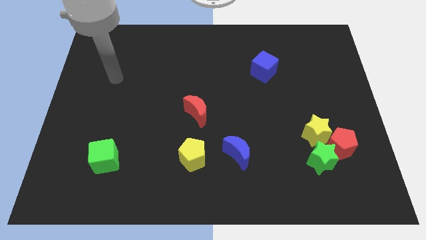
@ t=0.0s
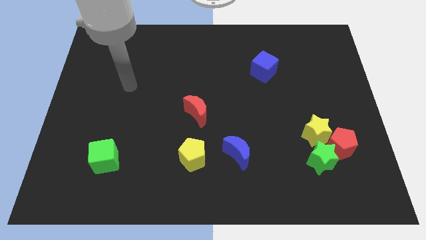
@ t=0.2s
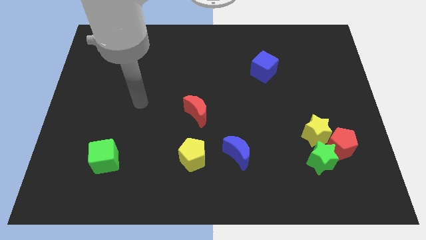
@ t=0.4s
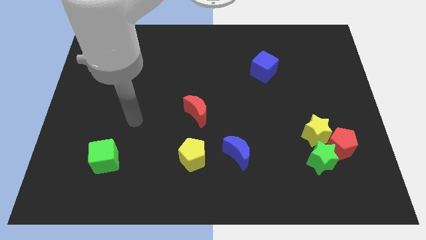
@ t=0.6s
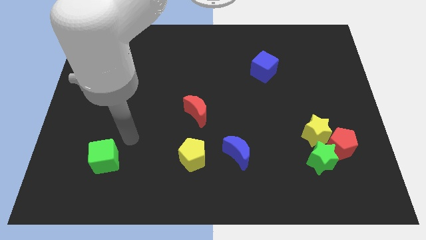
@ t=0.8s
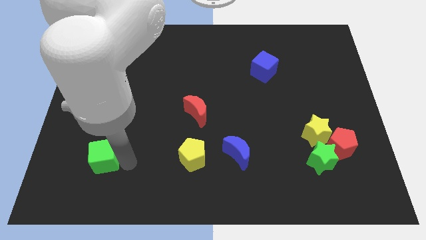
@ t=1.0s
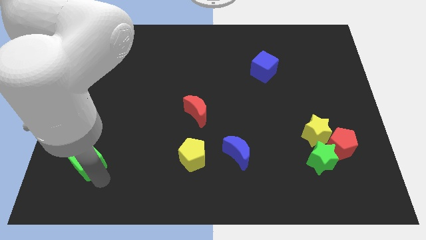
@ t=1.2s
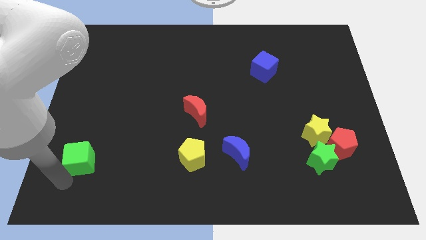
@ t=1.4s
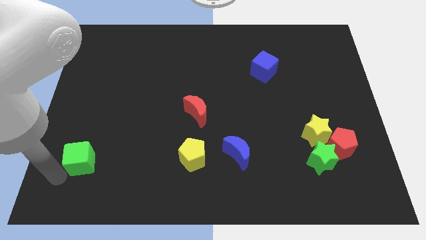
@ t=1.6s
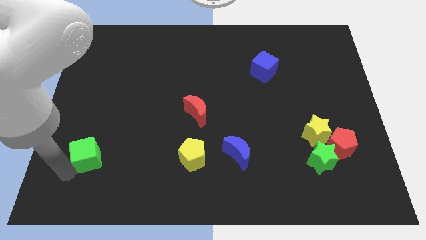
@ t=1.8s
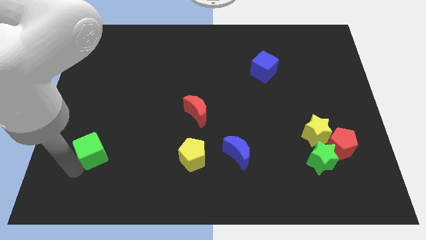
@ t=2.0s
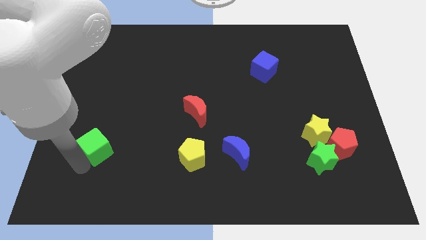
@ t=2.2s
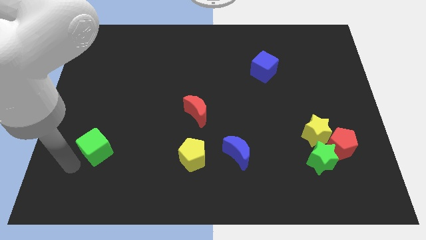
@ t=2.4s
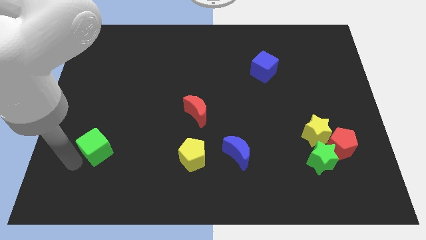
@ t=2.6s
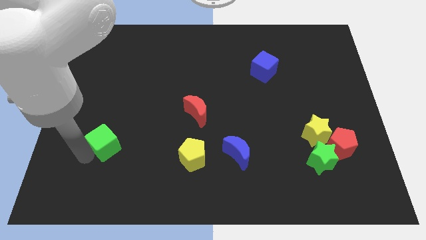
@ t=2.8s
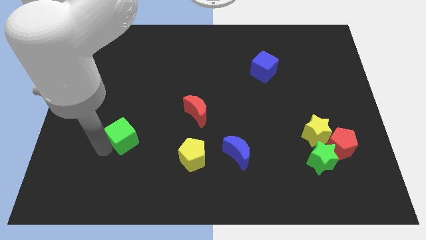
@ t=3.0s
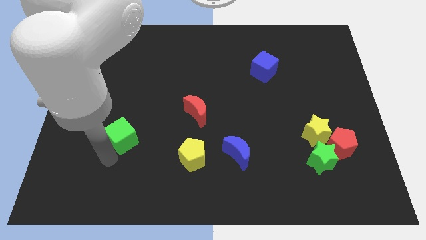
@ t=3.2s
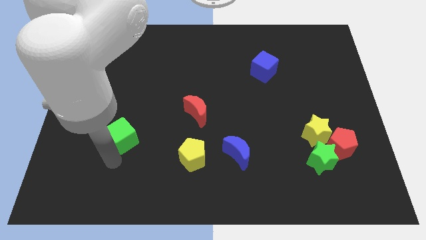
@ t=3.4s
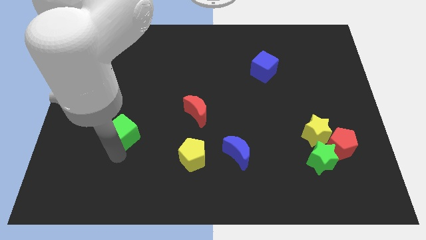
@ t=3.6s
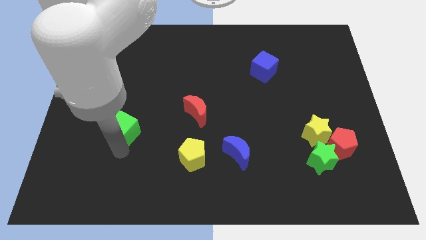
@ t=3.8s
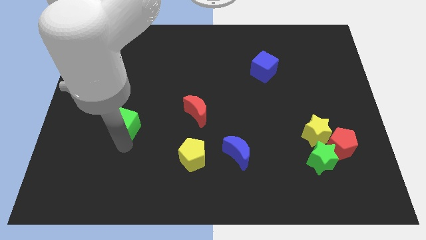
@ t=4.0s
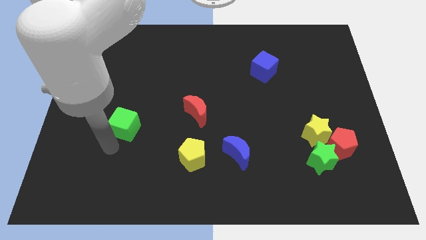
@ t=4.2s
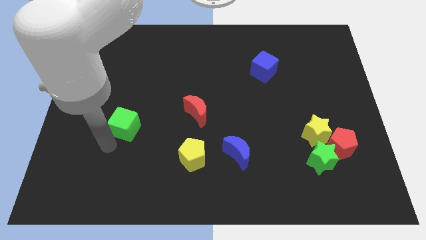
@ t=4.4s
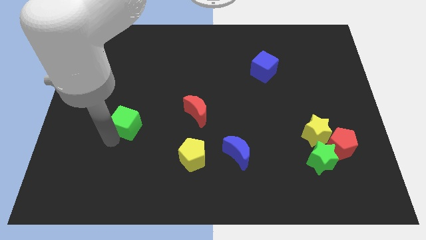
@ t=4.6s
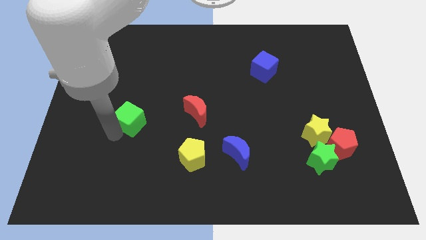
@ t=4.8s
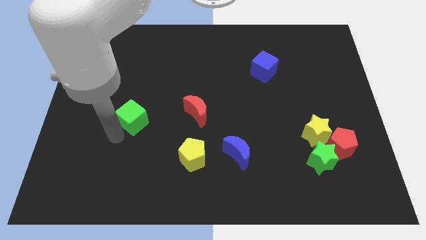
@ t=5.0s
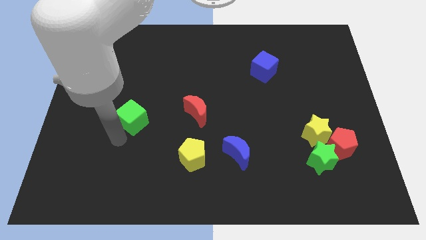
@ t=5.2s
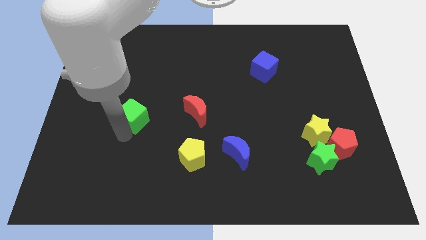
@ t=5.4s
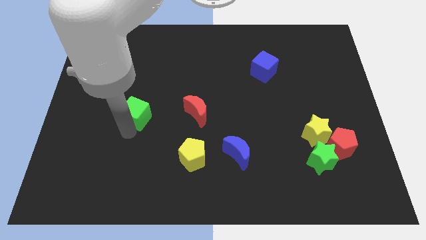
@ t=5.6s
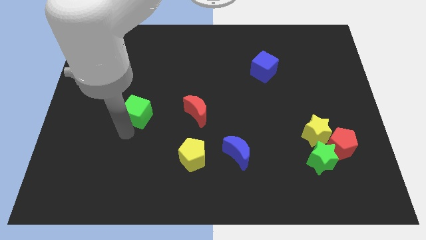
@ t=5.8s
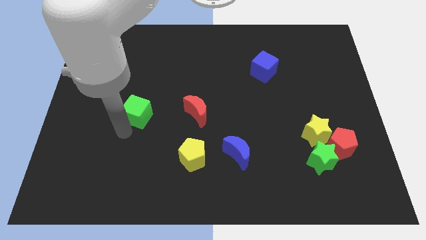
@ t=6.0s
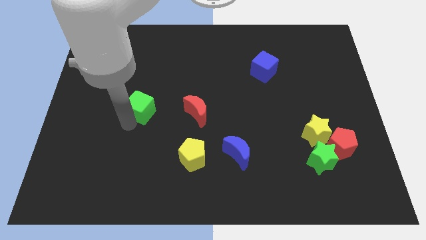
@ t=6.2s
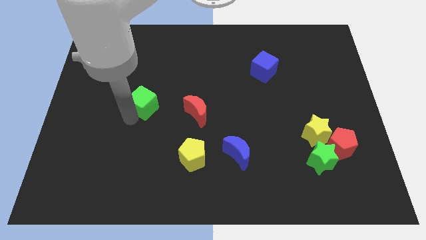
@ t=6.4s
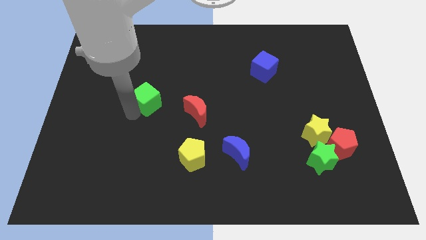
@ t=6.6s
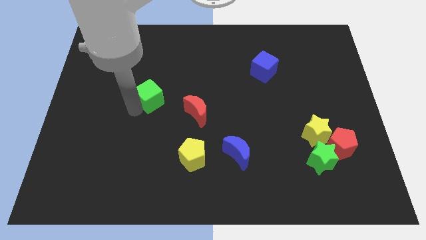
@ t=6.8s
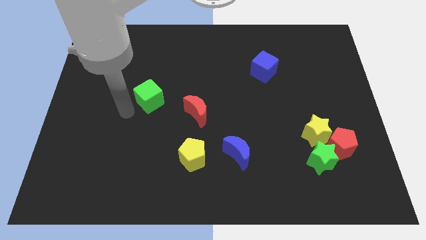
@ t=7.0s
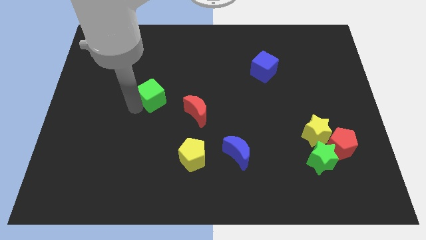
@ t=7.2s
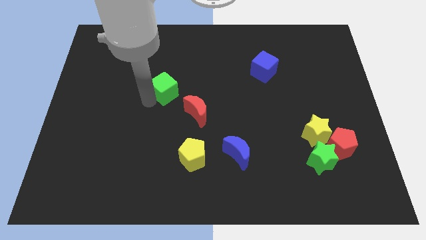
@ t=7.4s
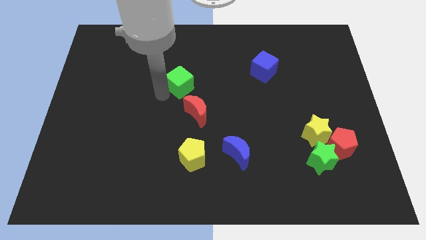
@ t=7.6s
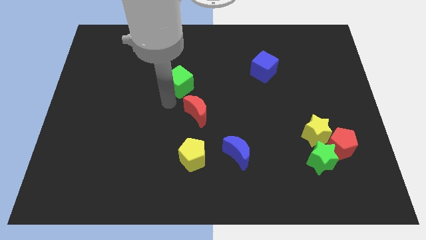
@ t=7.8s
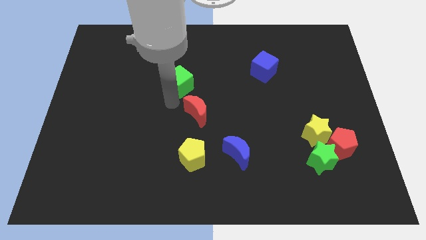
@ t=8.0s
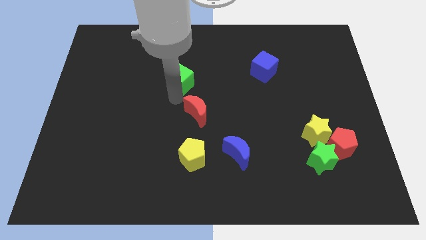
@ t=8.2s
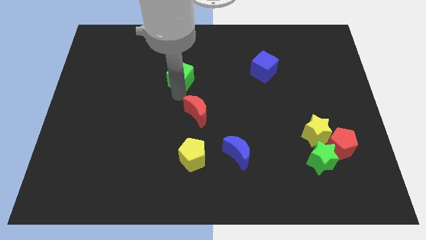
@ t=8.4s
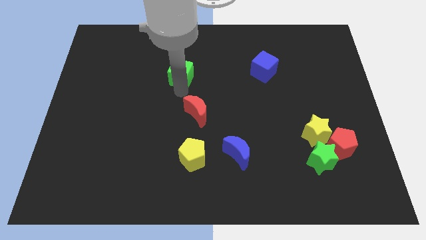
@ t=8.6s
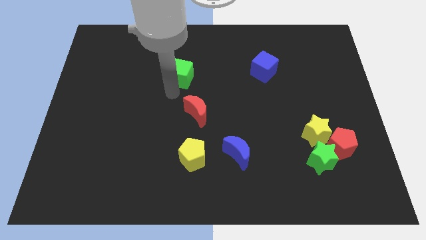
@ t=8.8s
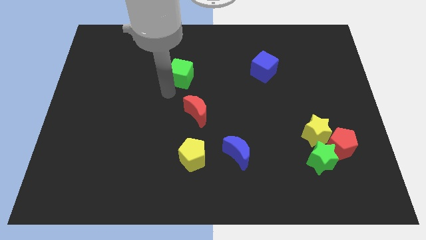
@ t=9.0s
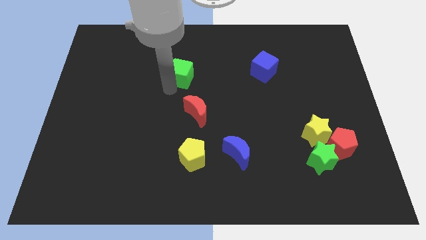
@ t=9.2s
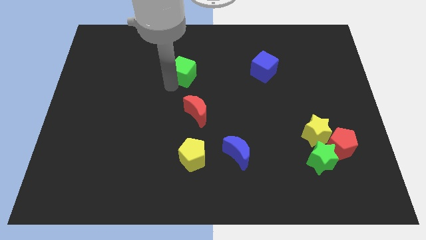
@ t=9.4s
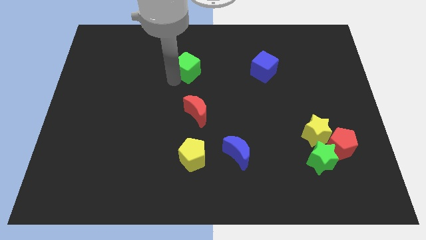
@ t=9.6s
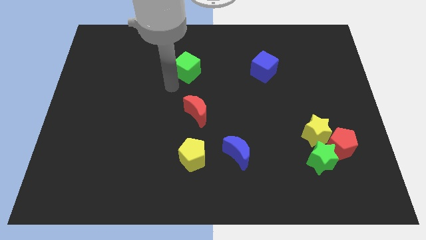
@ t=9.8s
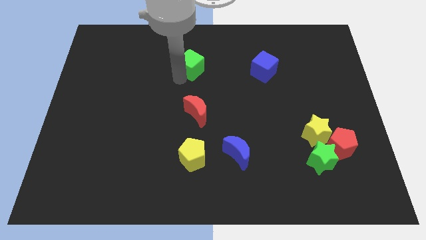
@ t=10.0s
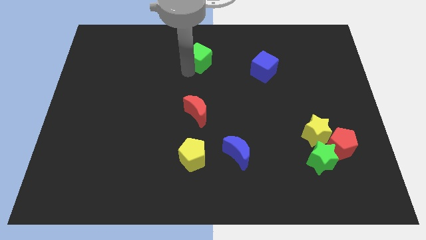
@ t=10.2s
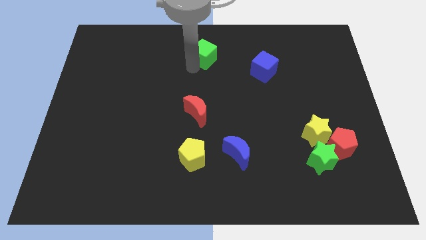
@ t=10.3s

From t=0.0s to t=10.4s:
put the green cube to the top side

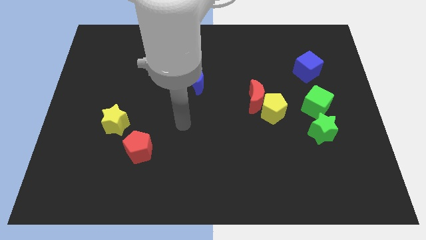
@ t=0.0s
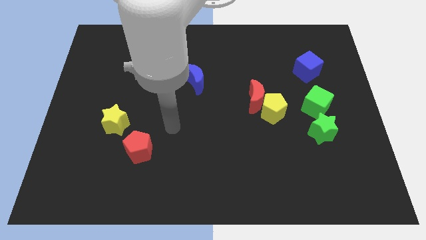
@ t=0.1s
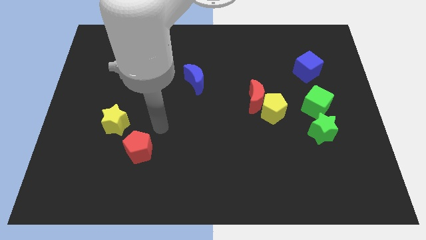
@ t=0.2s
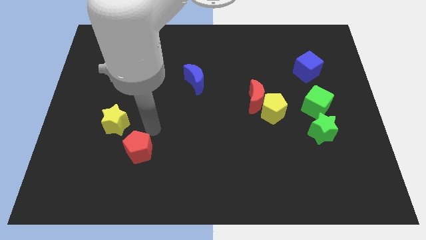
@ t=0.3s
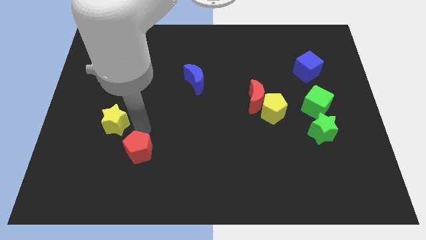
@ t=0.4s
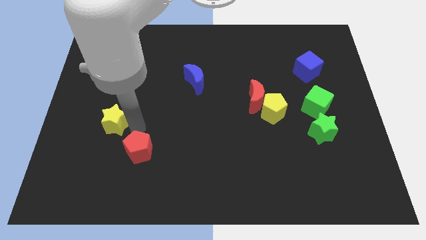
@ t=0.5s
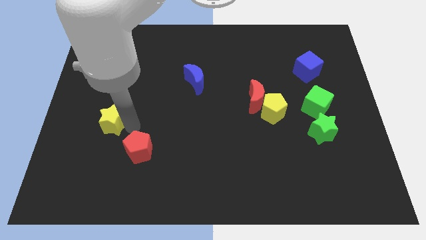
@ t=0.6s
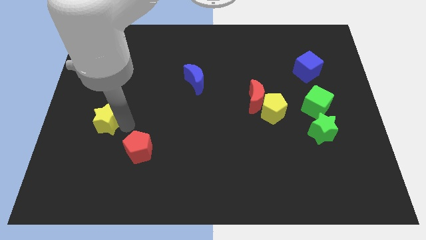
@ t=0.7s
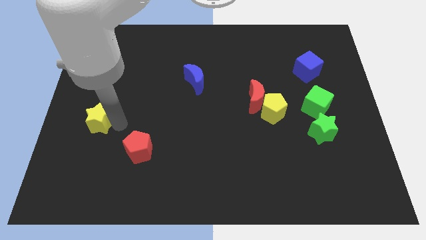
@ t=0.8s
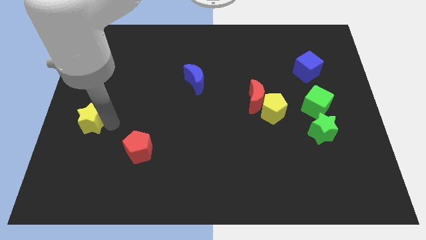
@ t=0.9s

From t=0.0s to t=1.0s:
push the yellow star to the left side

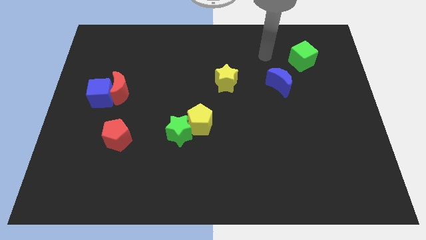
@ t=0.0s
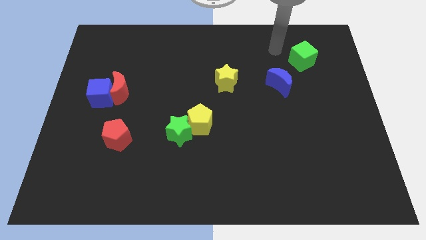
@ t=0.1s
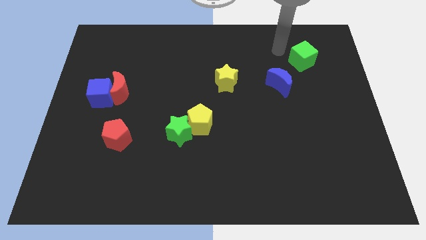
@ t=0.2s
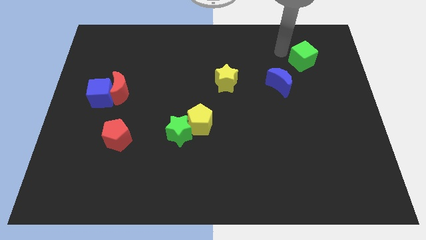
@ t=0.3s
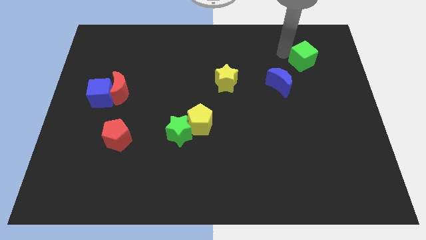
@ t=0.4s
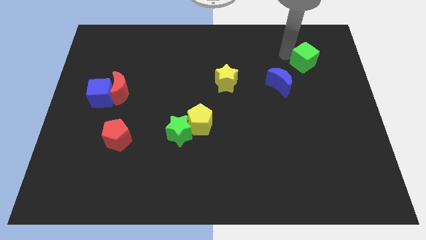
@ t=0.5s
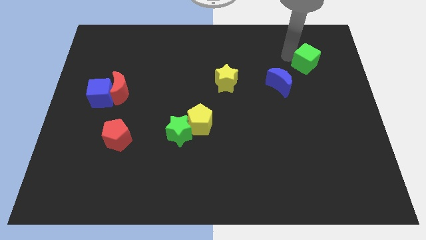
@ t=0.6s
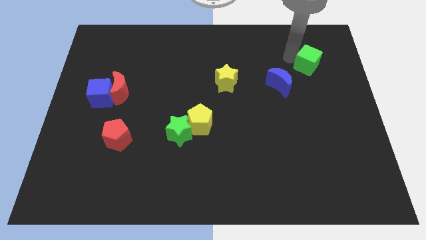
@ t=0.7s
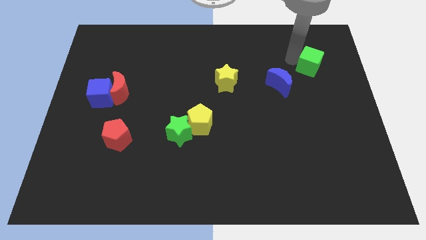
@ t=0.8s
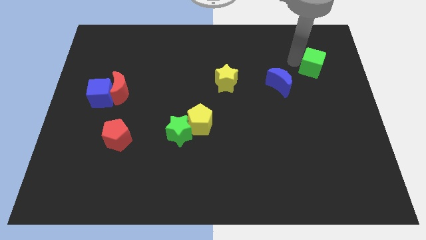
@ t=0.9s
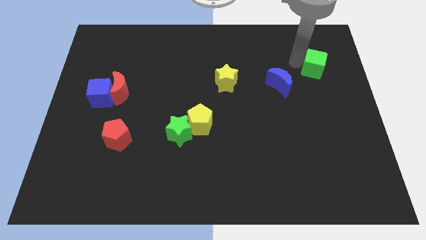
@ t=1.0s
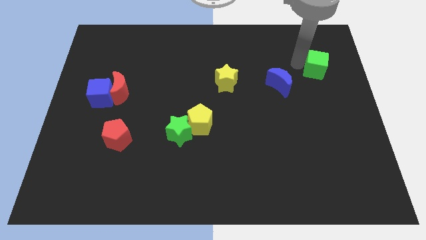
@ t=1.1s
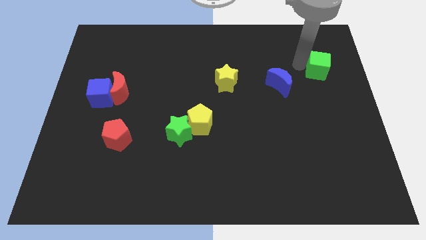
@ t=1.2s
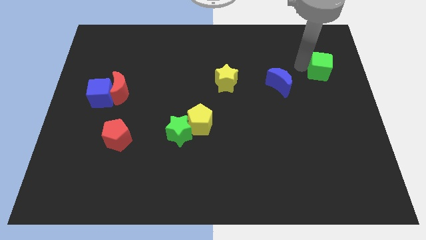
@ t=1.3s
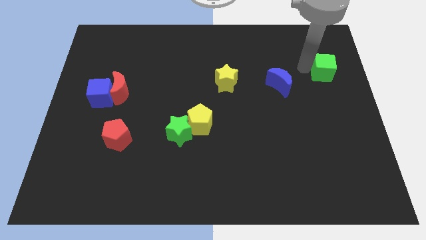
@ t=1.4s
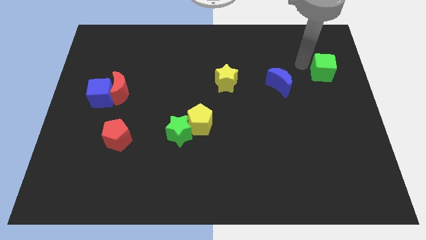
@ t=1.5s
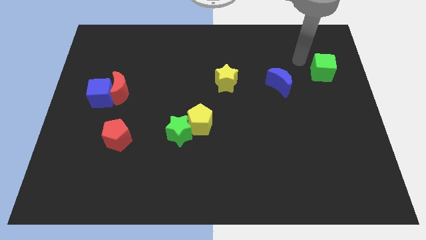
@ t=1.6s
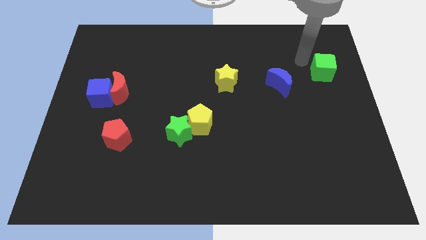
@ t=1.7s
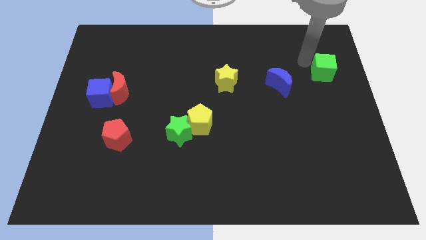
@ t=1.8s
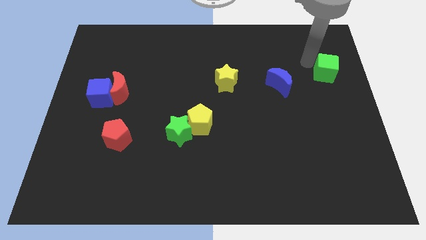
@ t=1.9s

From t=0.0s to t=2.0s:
push the green cube to the right side of the board
